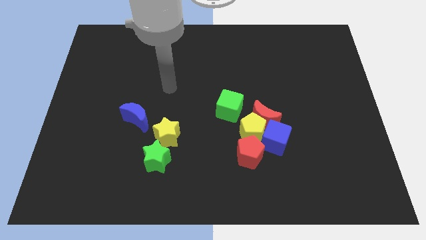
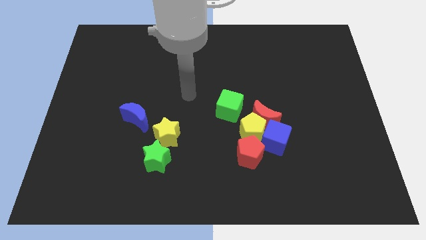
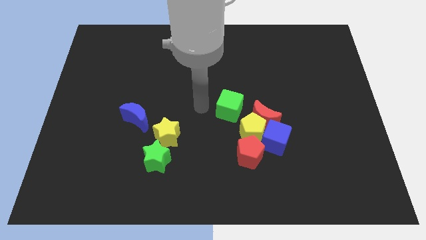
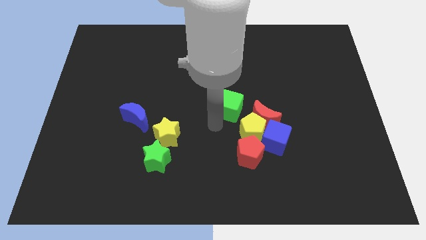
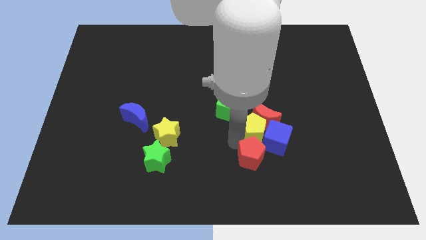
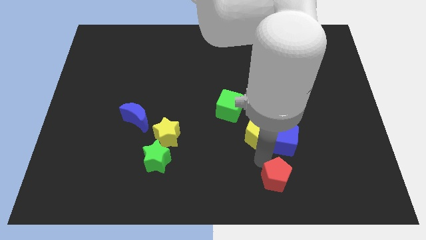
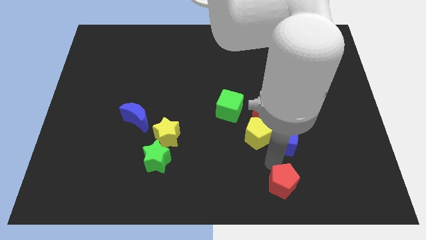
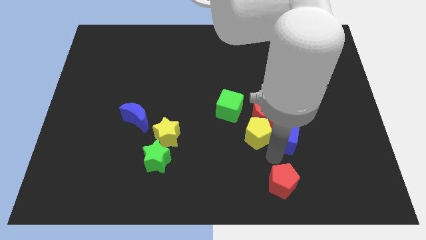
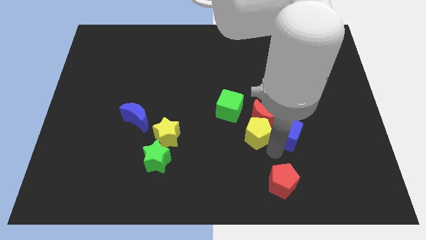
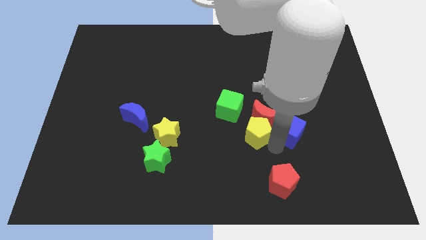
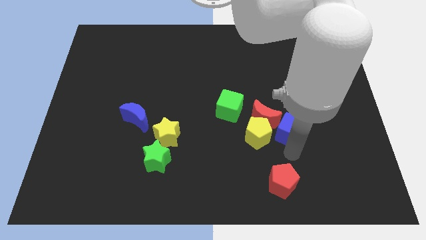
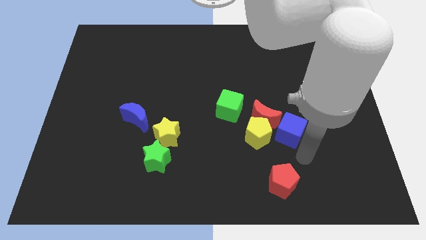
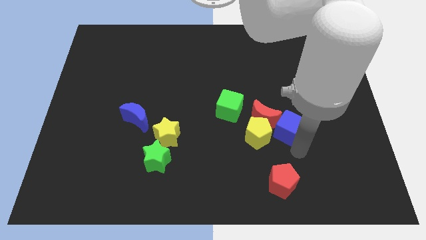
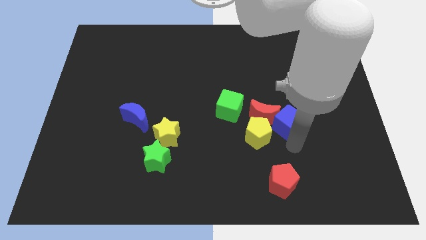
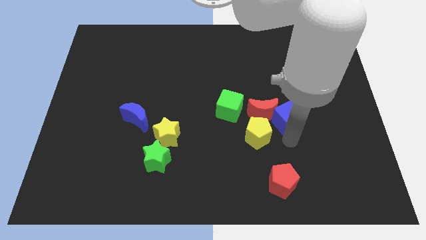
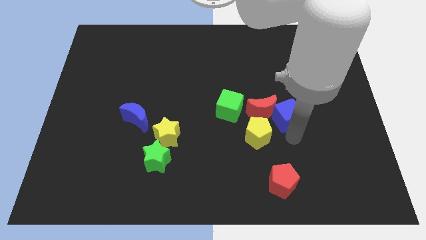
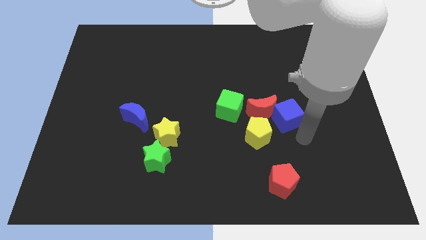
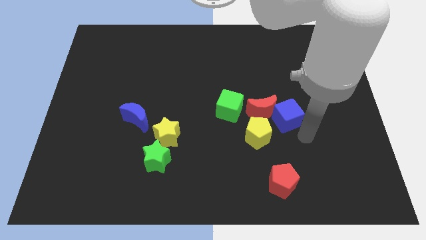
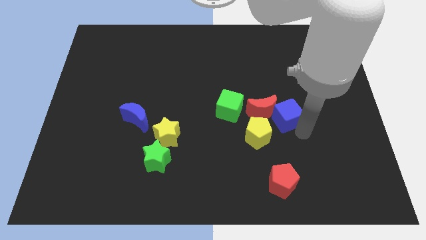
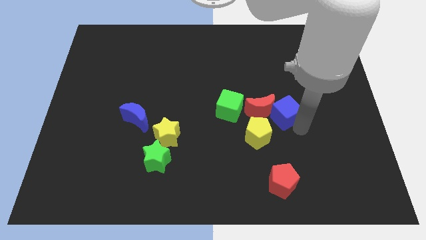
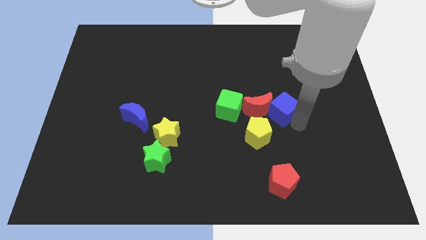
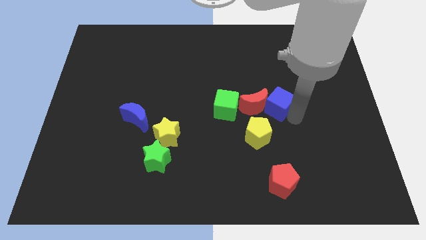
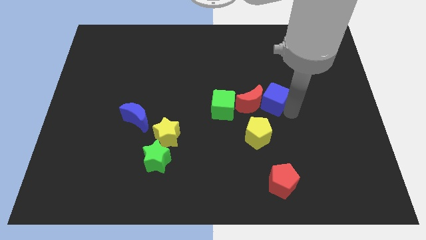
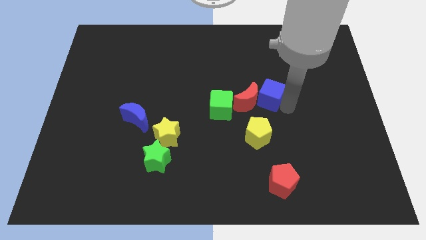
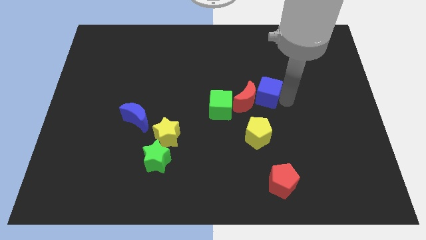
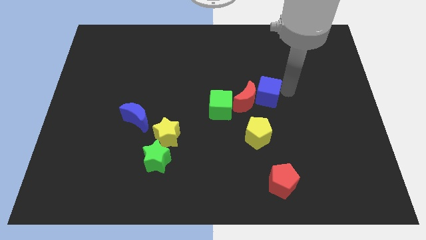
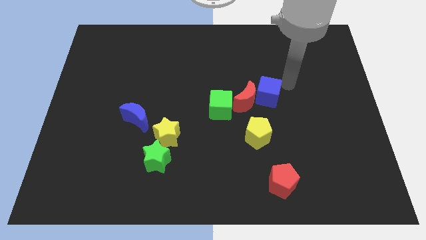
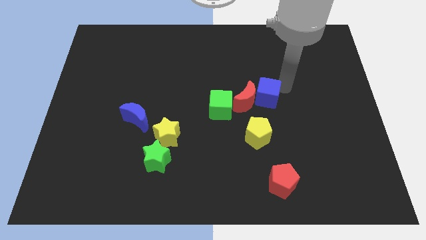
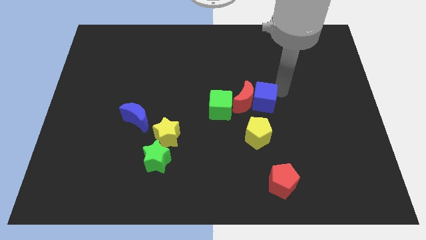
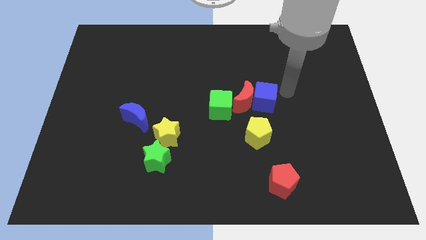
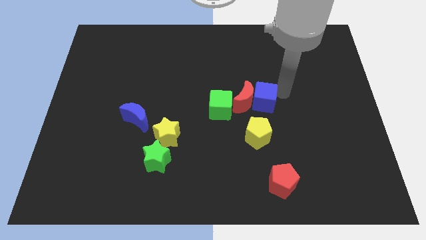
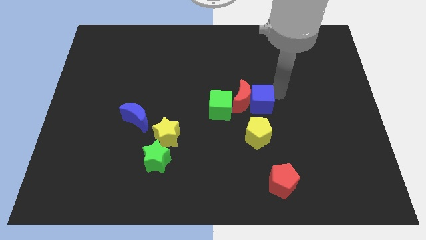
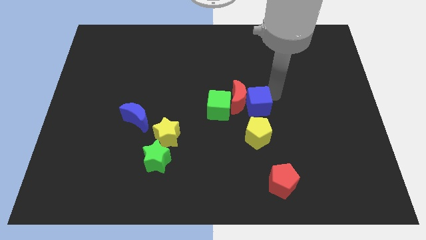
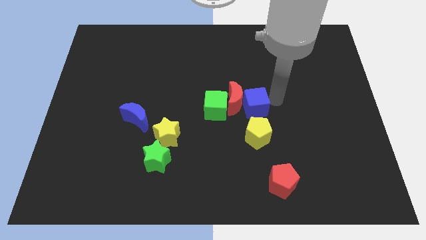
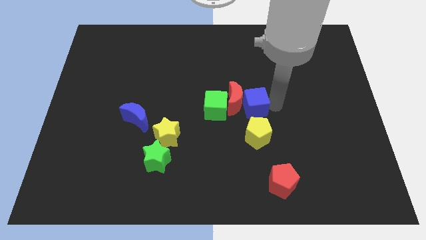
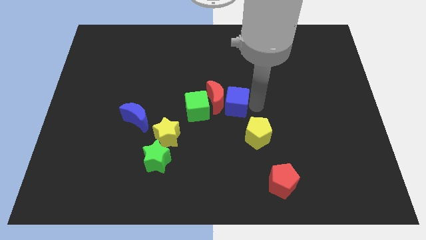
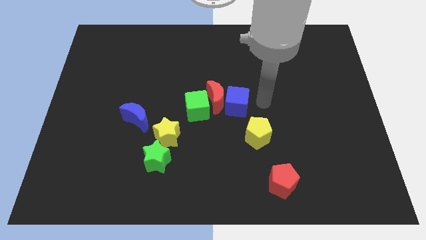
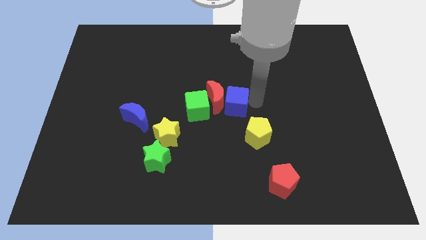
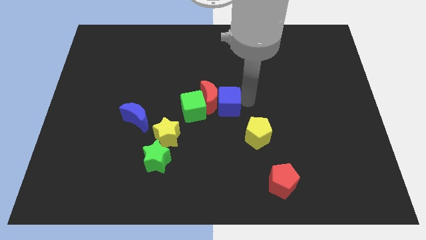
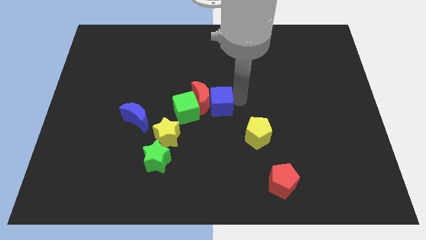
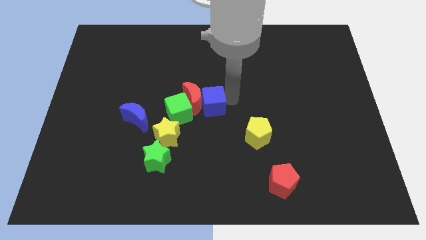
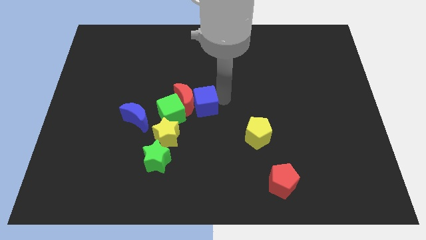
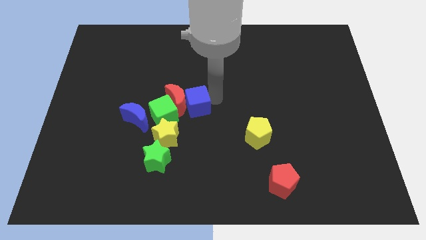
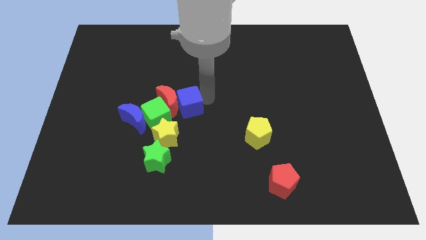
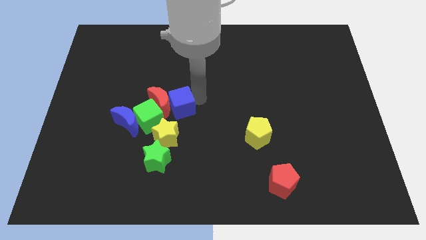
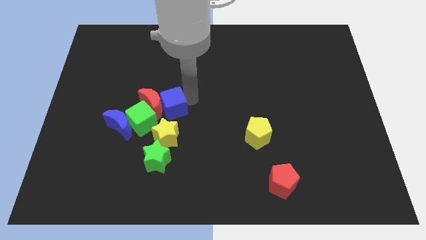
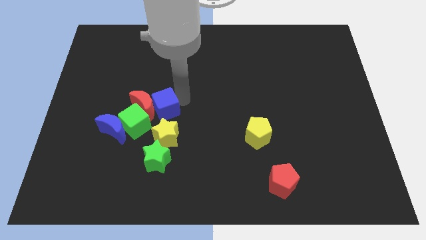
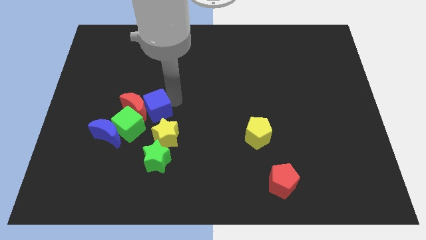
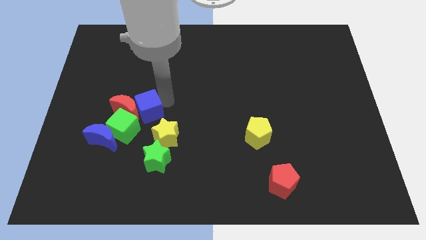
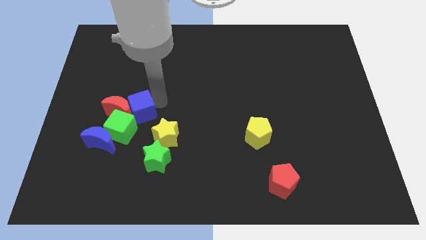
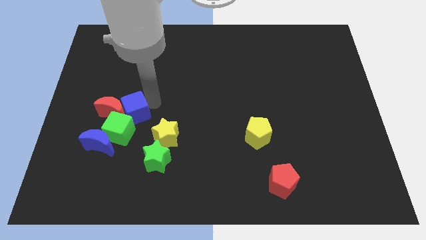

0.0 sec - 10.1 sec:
move the blue cube towards the green cube

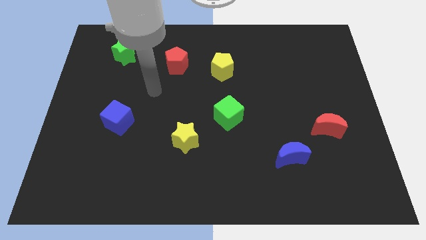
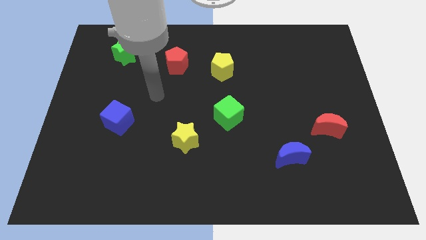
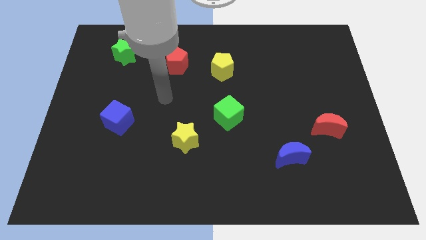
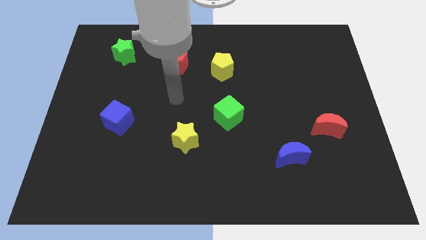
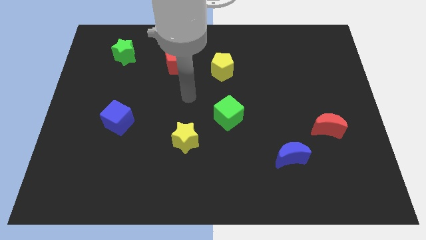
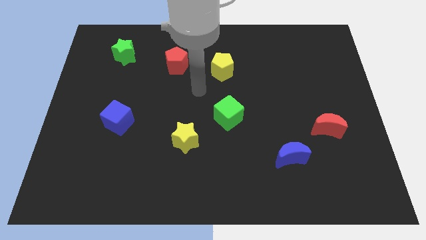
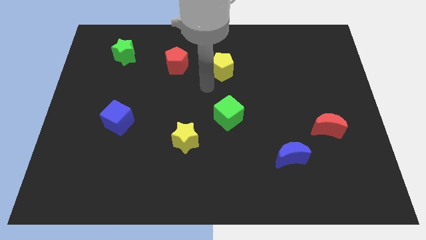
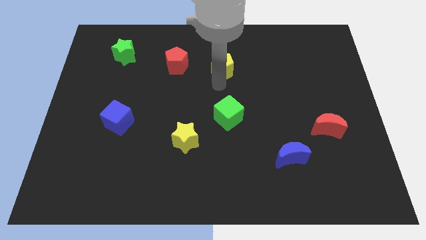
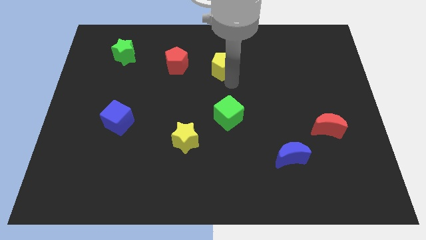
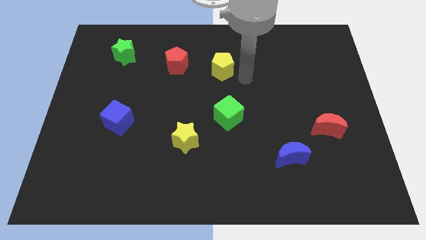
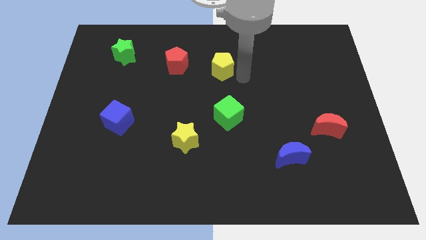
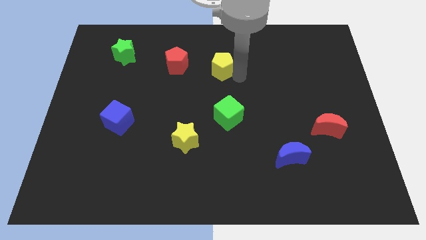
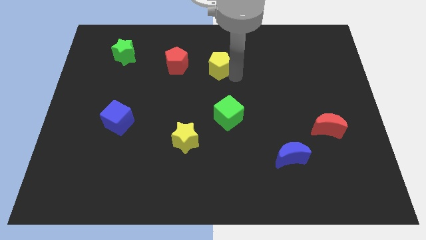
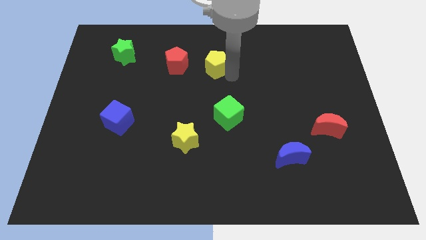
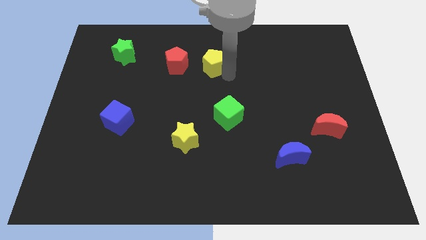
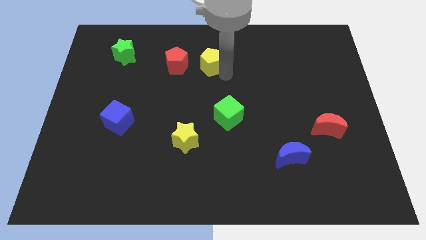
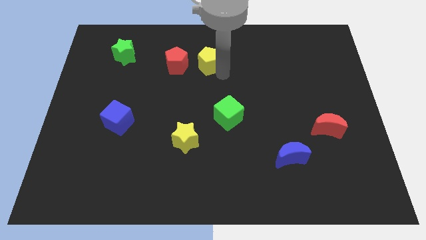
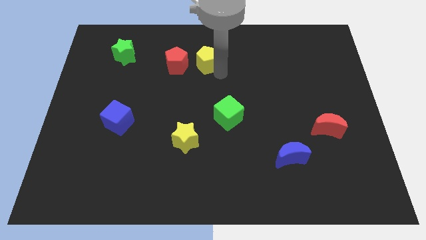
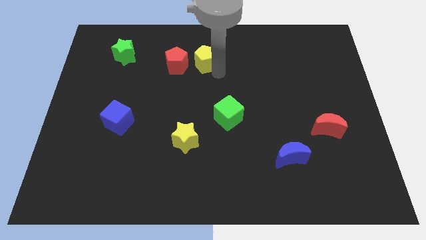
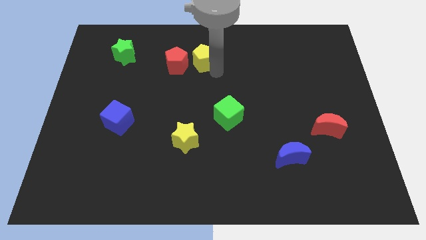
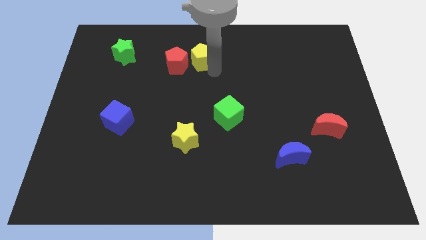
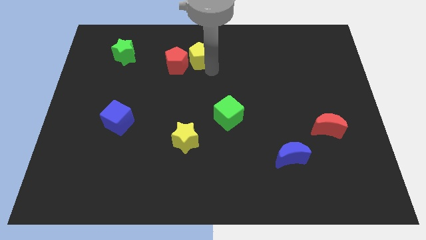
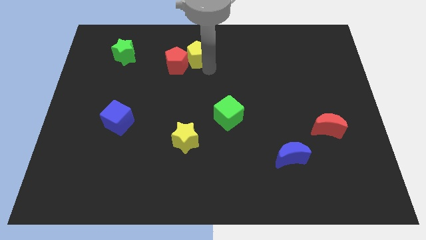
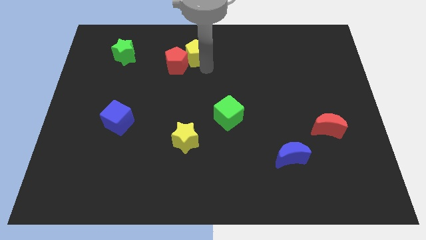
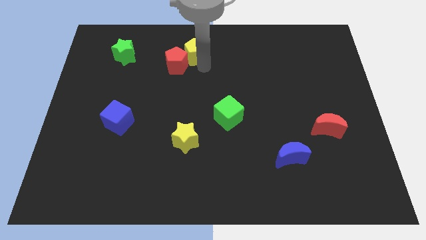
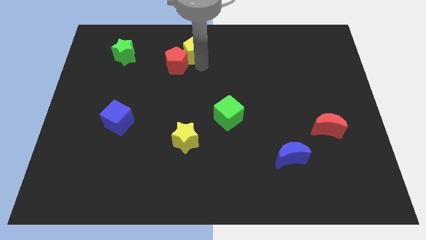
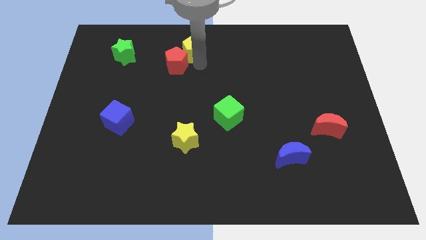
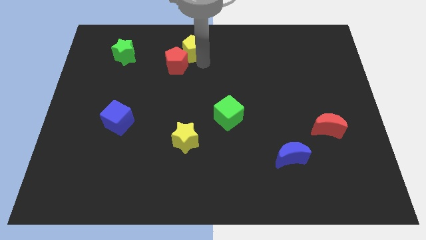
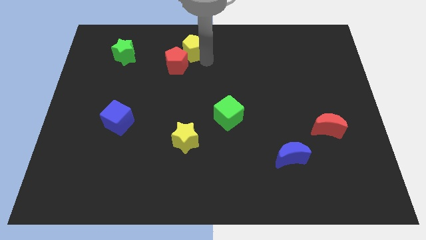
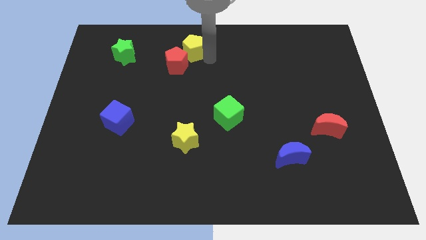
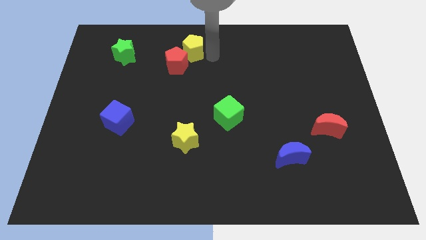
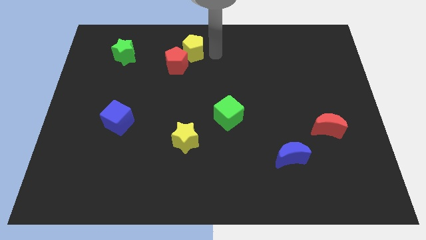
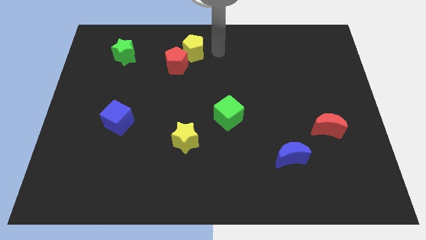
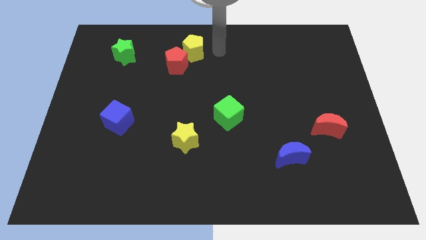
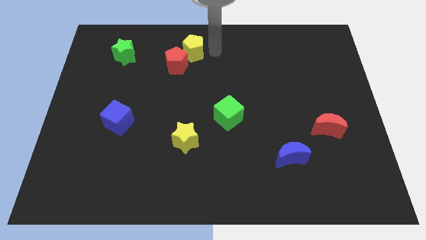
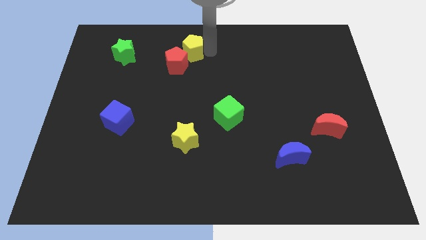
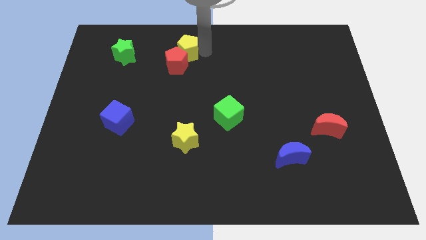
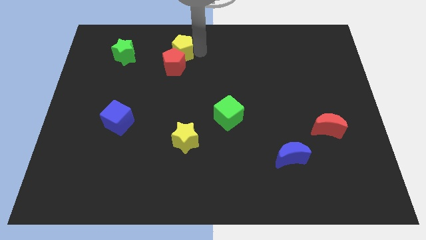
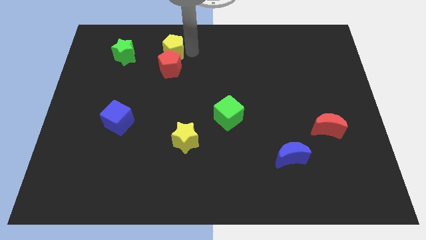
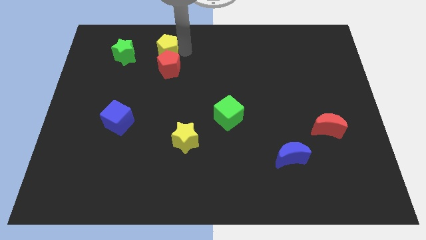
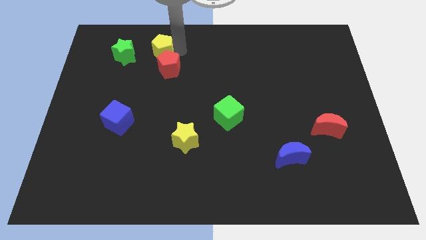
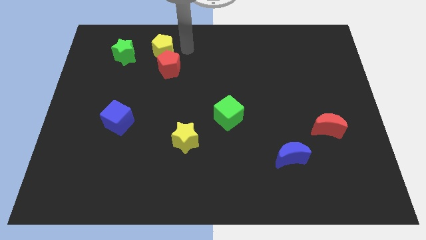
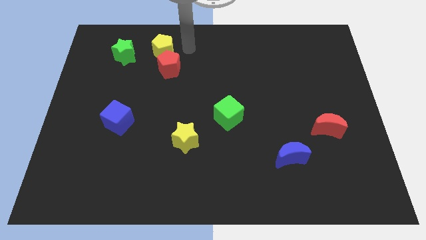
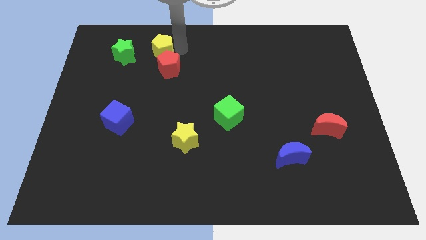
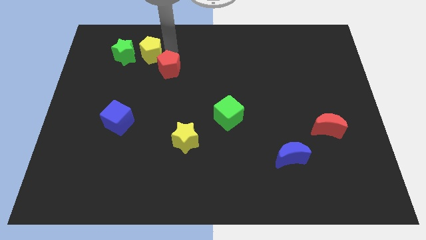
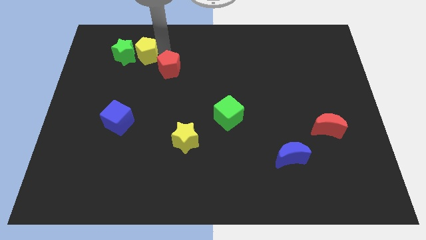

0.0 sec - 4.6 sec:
put the yellow pentagon to the green star
